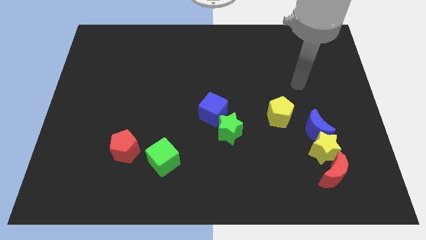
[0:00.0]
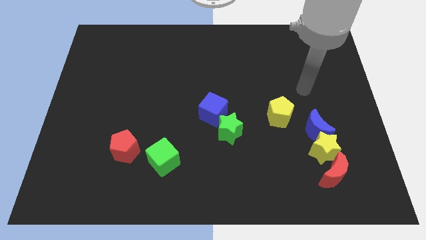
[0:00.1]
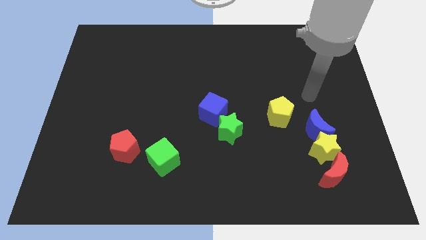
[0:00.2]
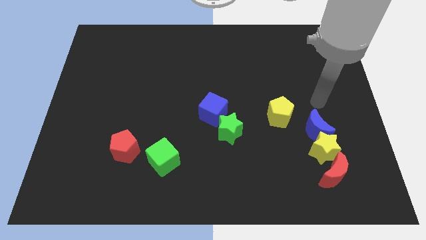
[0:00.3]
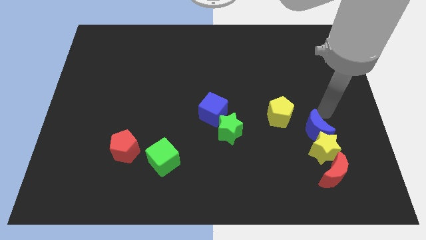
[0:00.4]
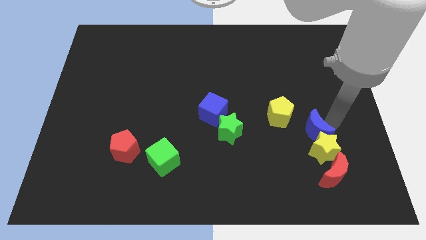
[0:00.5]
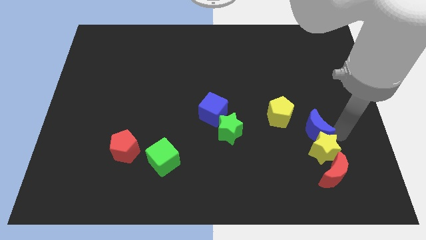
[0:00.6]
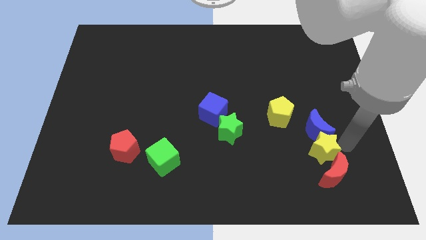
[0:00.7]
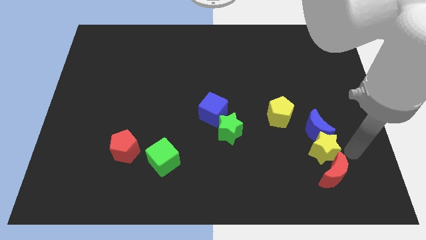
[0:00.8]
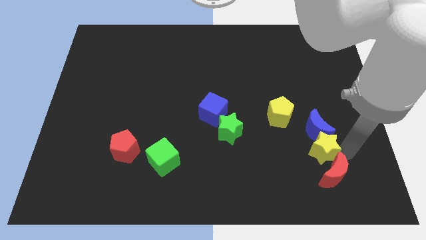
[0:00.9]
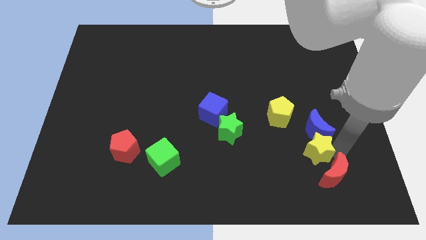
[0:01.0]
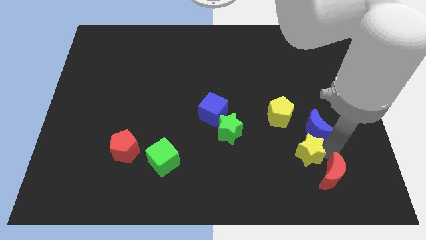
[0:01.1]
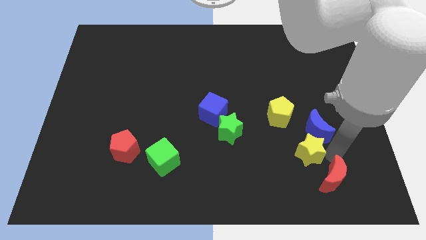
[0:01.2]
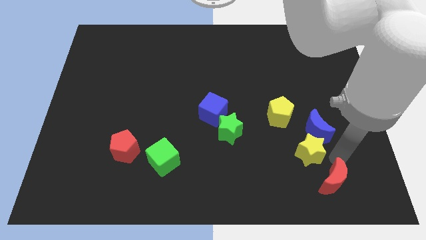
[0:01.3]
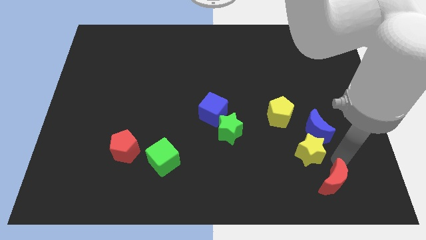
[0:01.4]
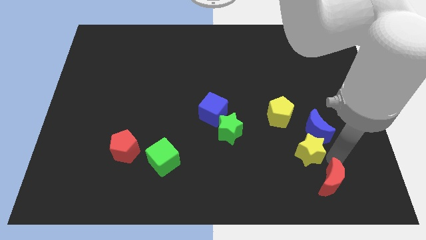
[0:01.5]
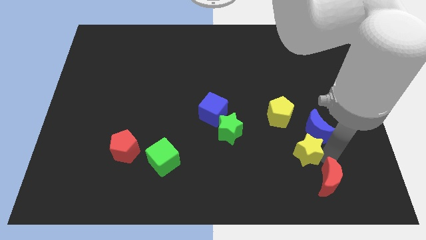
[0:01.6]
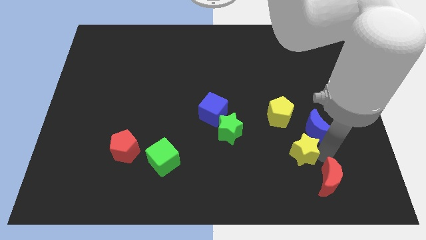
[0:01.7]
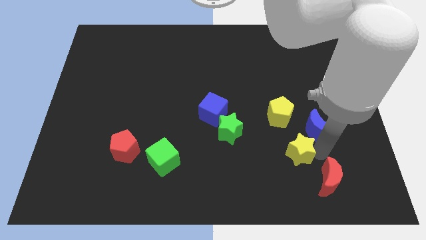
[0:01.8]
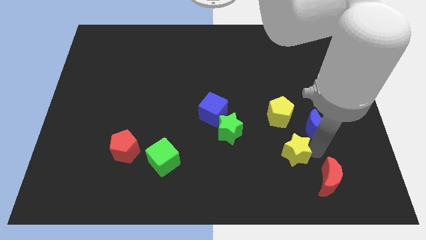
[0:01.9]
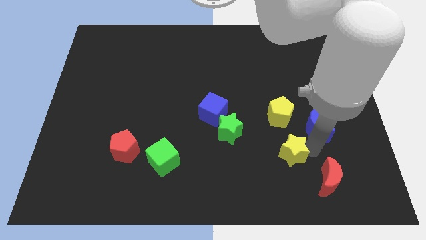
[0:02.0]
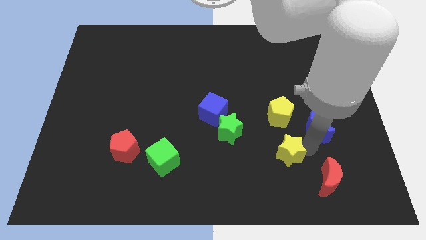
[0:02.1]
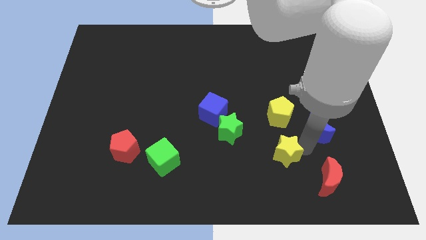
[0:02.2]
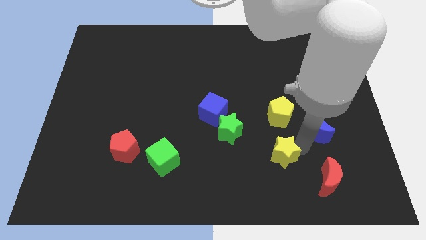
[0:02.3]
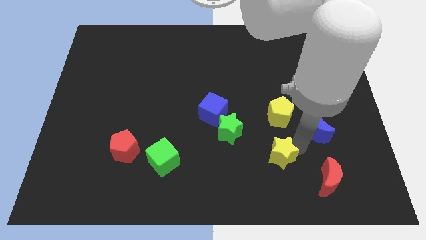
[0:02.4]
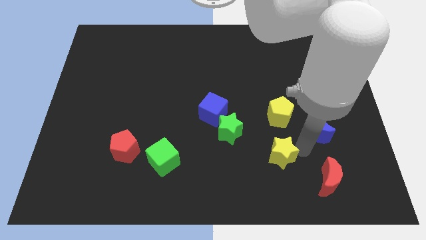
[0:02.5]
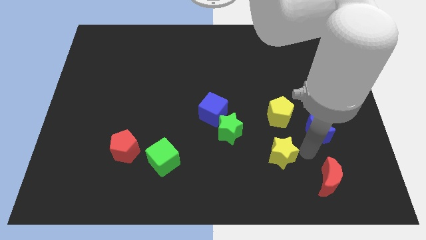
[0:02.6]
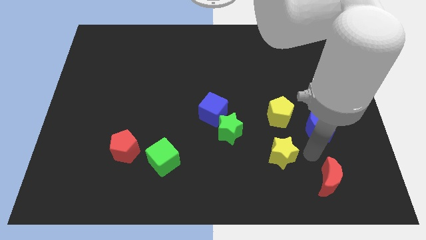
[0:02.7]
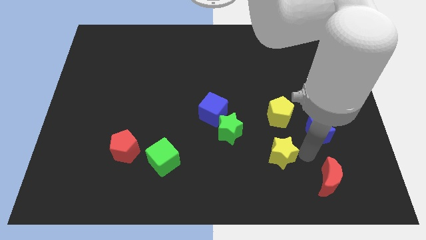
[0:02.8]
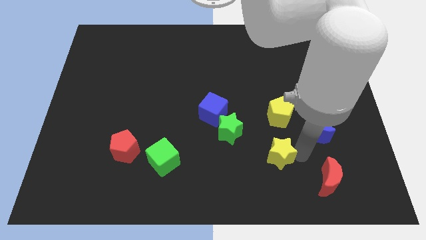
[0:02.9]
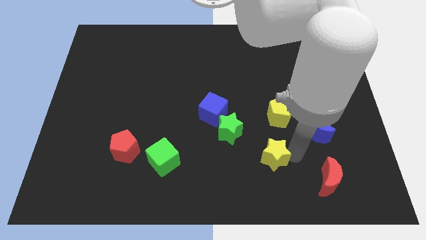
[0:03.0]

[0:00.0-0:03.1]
separate the yellow star from the blue moon and red moon

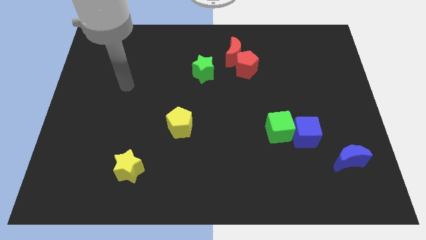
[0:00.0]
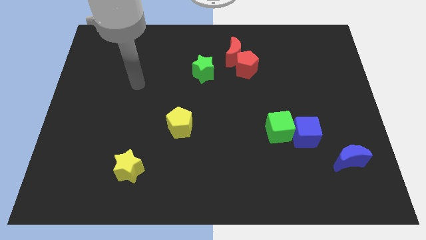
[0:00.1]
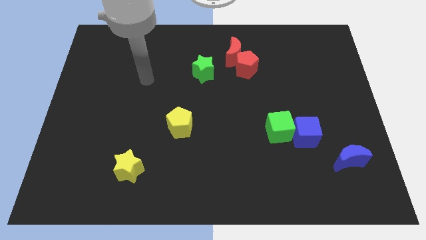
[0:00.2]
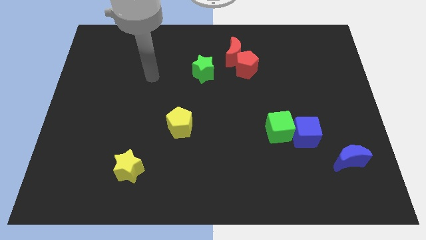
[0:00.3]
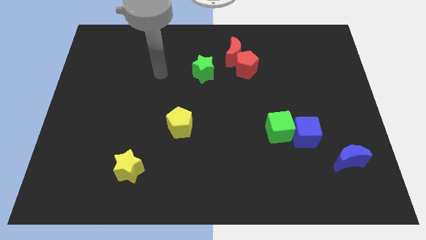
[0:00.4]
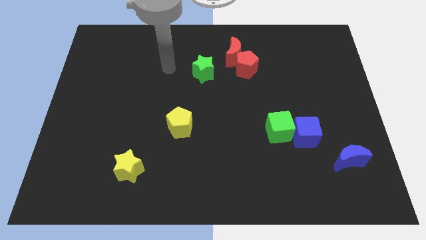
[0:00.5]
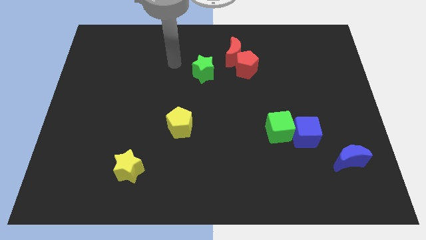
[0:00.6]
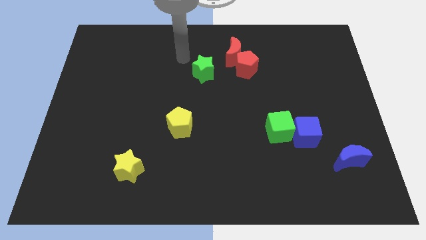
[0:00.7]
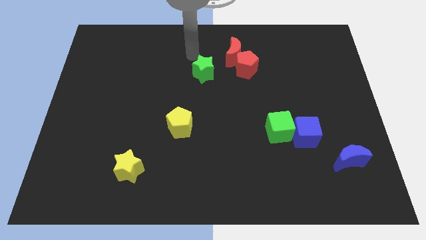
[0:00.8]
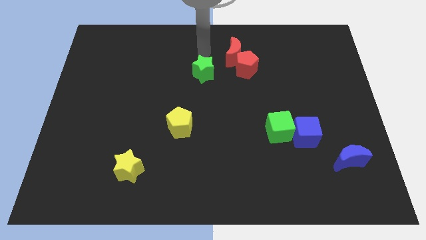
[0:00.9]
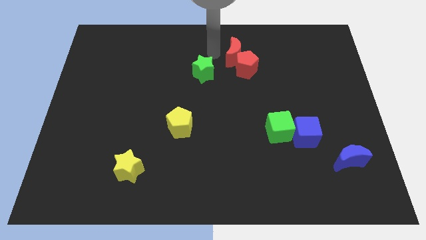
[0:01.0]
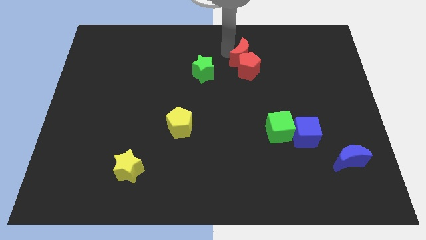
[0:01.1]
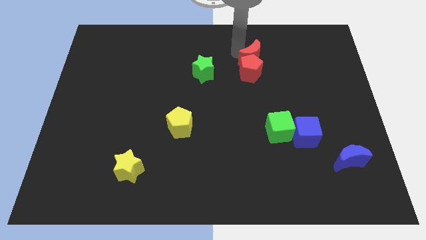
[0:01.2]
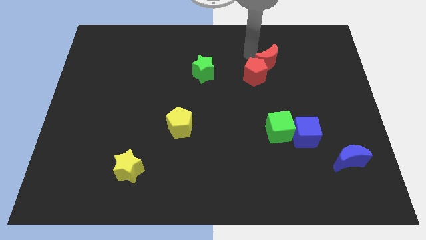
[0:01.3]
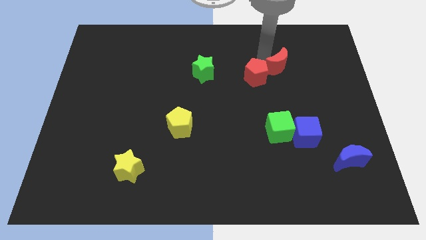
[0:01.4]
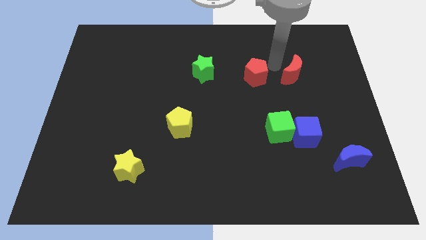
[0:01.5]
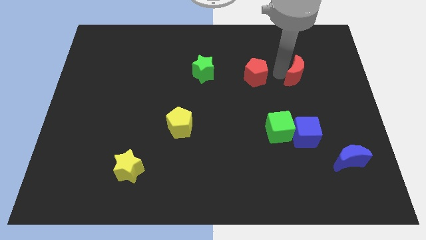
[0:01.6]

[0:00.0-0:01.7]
pull the red pentagon apart from the red moon

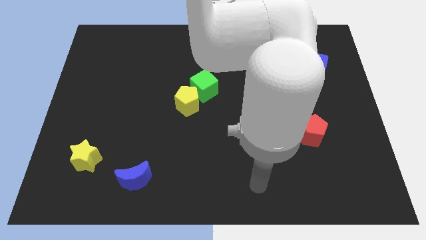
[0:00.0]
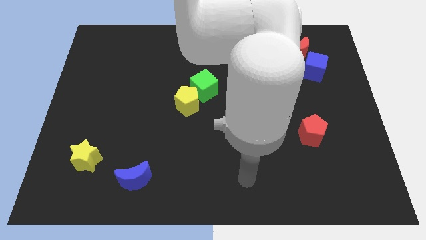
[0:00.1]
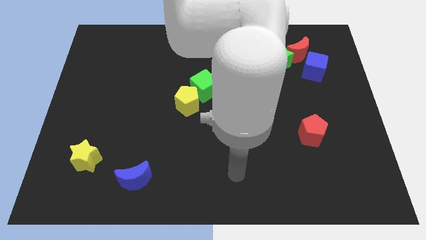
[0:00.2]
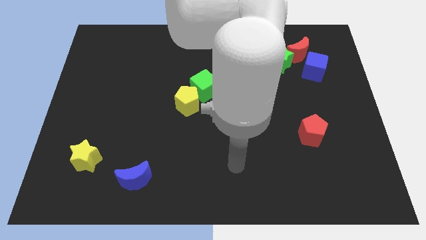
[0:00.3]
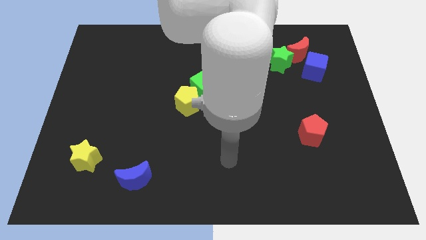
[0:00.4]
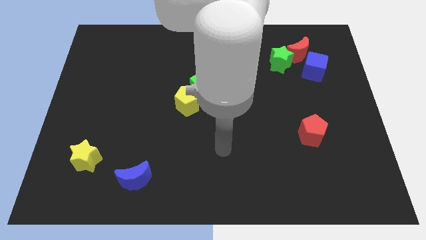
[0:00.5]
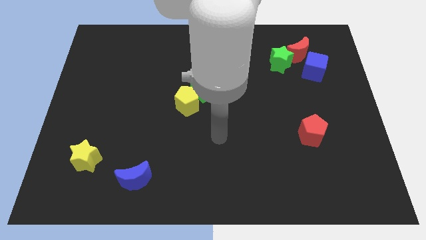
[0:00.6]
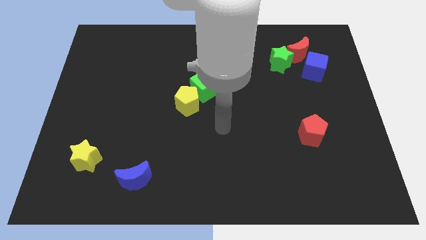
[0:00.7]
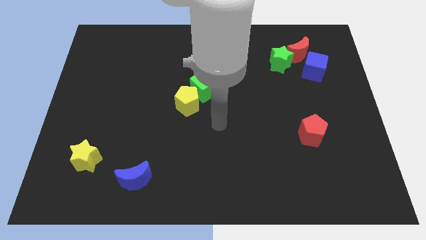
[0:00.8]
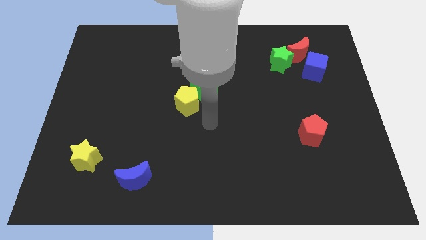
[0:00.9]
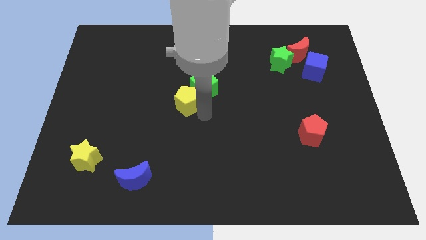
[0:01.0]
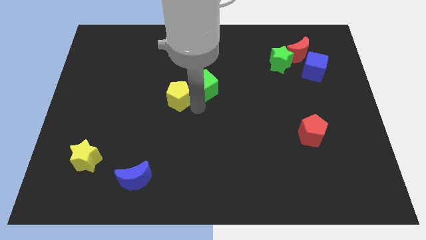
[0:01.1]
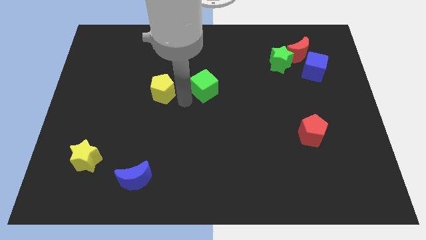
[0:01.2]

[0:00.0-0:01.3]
separate the green cube from the yellow pentagon

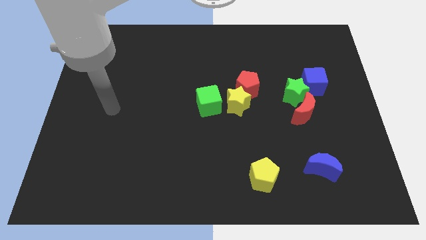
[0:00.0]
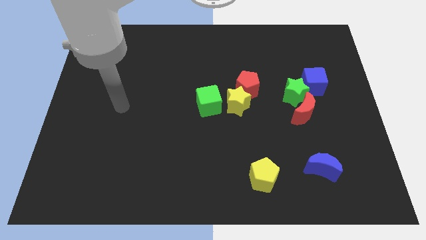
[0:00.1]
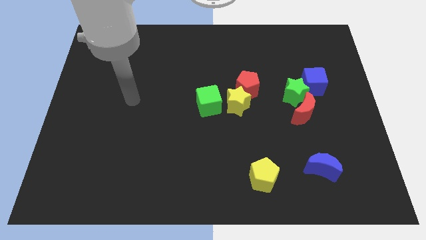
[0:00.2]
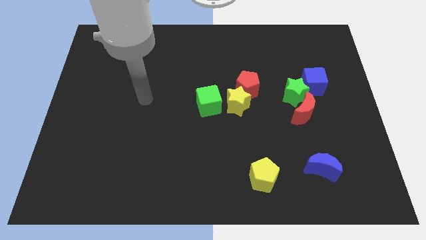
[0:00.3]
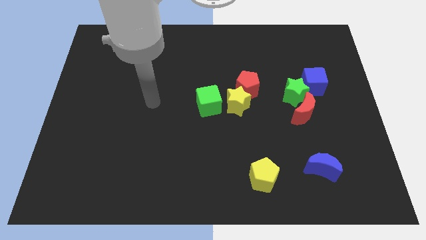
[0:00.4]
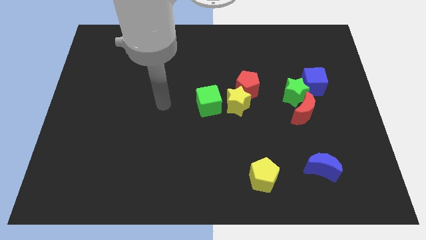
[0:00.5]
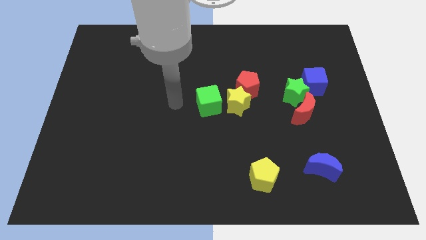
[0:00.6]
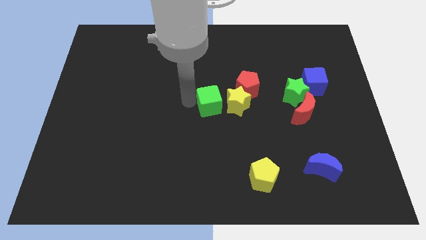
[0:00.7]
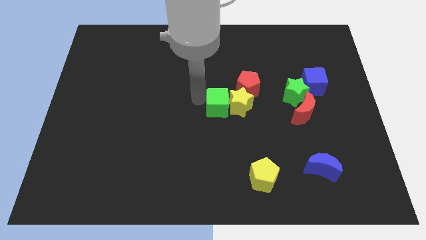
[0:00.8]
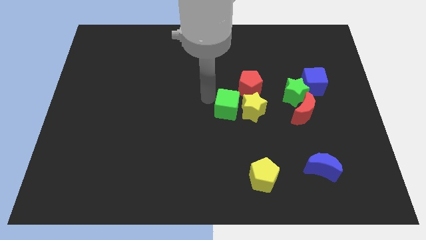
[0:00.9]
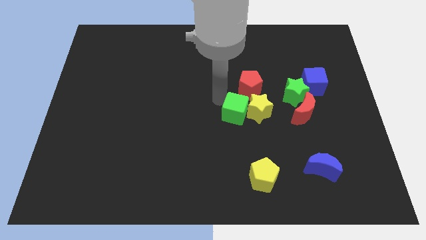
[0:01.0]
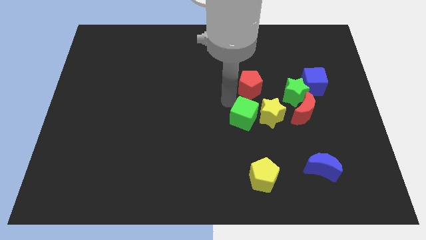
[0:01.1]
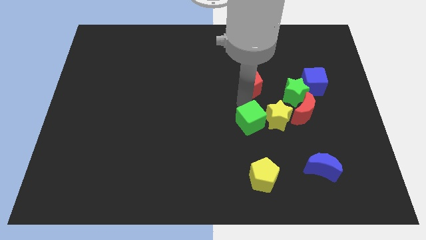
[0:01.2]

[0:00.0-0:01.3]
move the red pentagon away from the yellow star

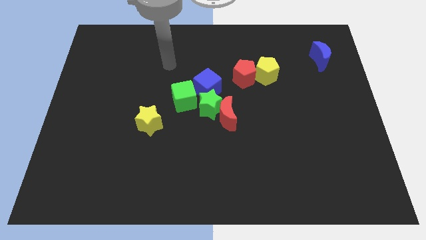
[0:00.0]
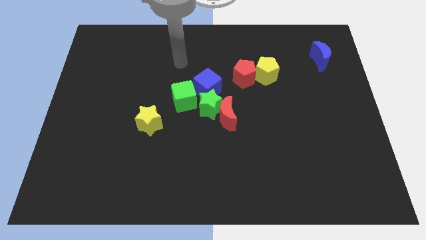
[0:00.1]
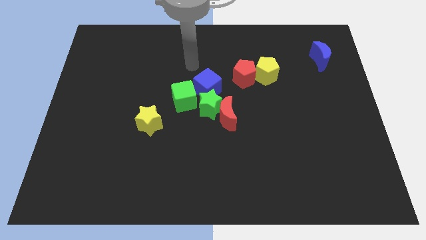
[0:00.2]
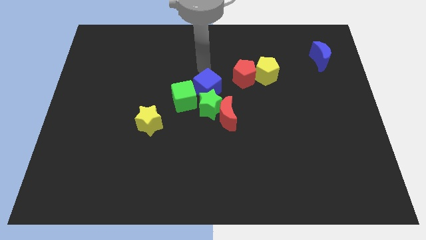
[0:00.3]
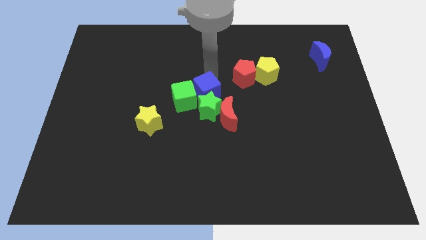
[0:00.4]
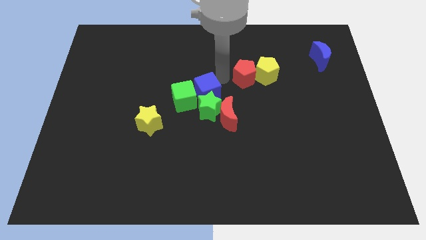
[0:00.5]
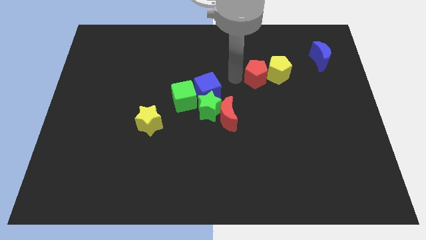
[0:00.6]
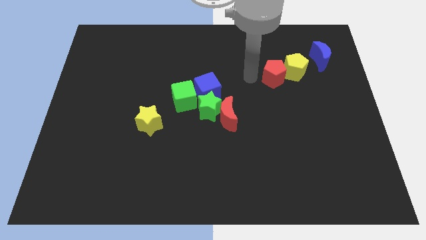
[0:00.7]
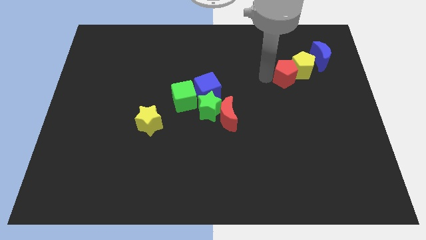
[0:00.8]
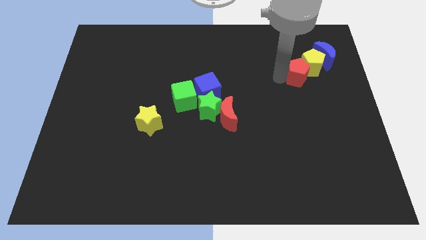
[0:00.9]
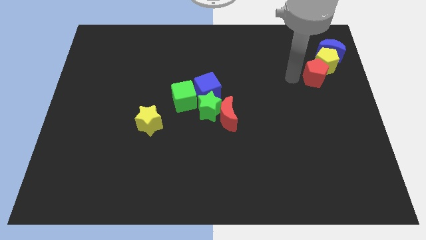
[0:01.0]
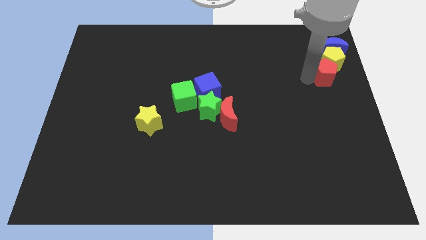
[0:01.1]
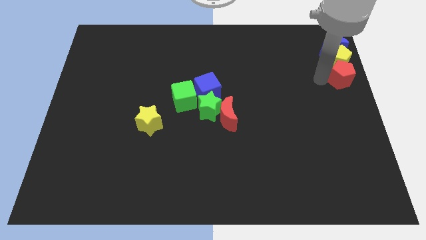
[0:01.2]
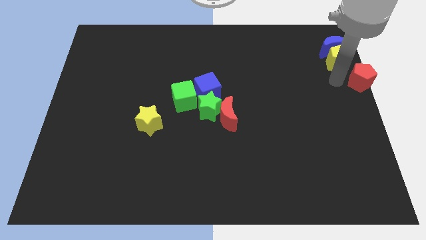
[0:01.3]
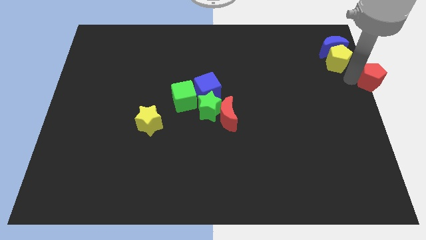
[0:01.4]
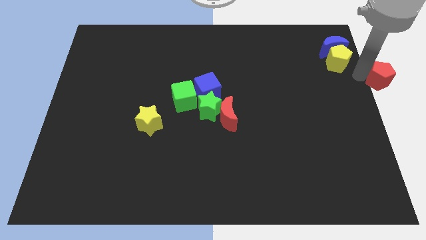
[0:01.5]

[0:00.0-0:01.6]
move the yellow pentagon away from the red pentagon

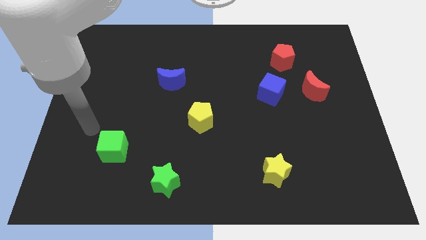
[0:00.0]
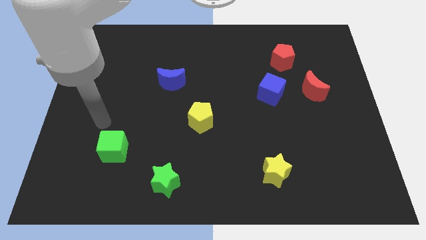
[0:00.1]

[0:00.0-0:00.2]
pull the red moon apart from the blue cube

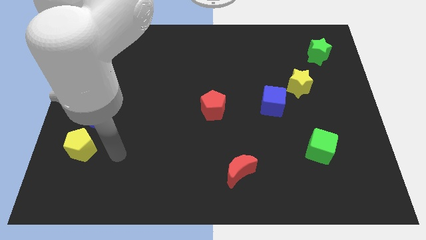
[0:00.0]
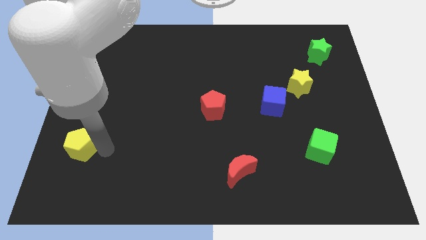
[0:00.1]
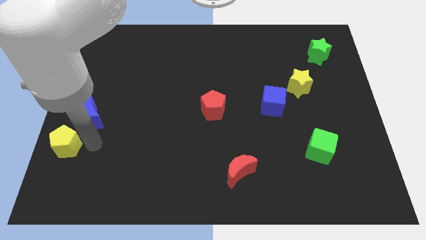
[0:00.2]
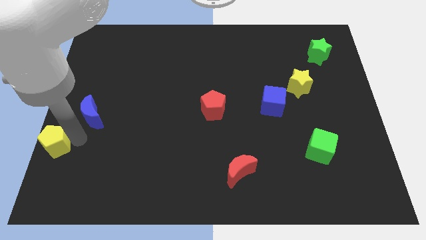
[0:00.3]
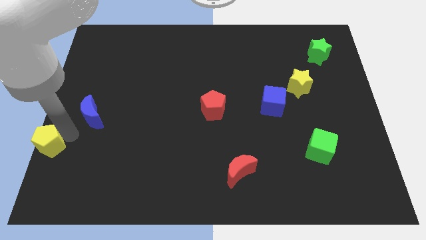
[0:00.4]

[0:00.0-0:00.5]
separate the blue moon from the yellow pentagon
